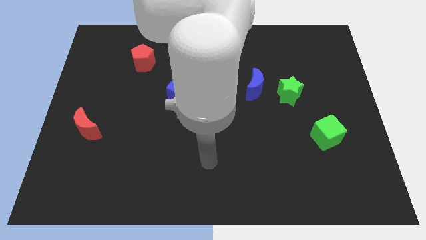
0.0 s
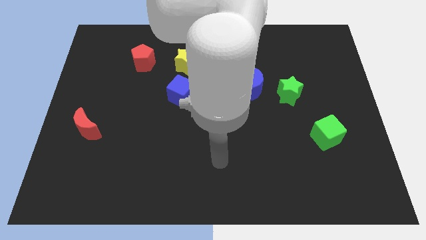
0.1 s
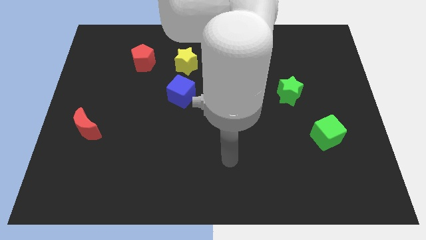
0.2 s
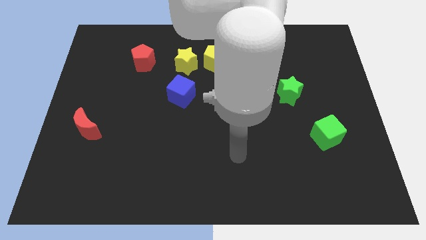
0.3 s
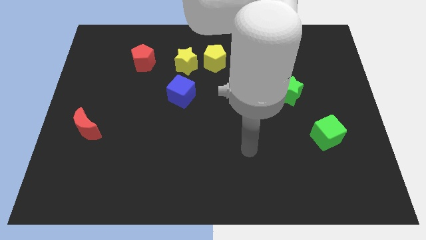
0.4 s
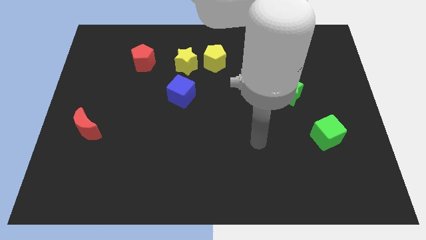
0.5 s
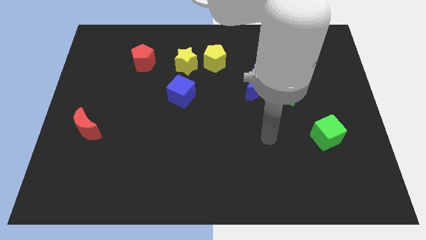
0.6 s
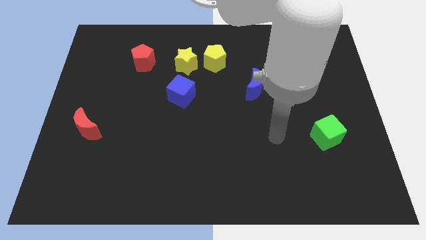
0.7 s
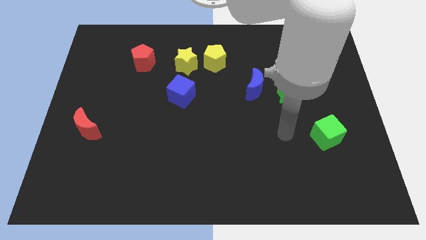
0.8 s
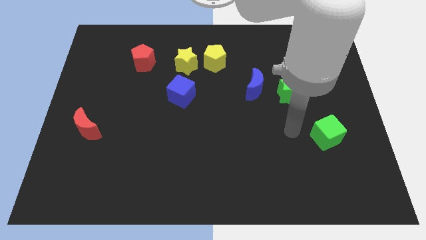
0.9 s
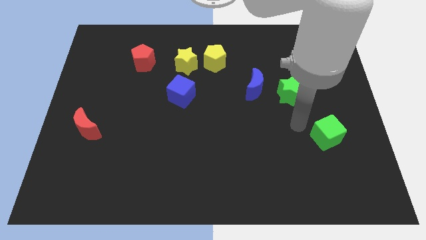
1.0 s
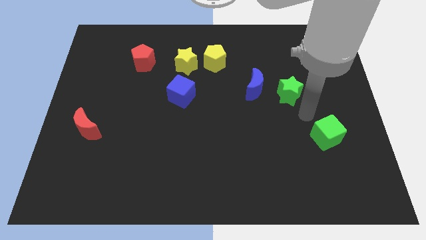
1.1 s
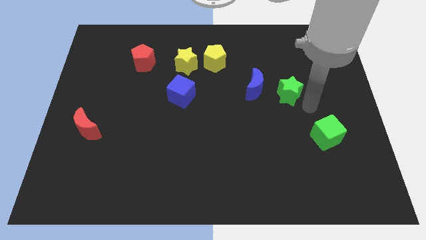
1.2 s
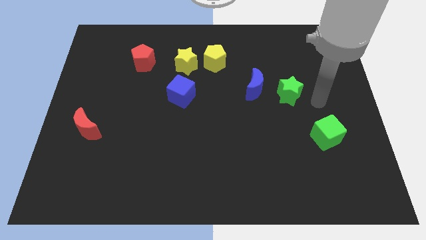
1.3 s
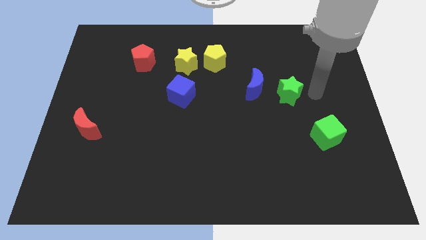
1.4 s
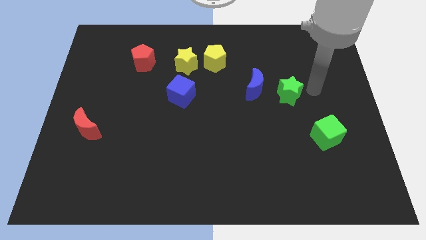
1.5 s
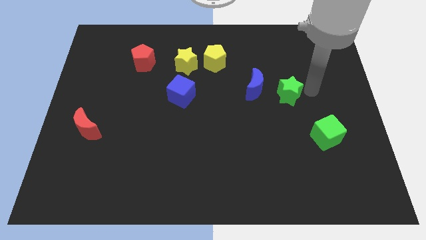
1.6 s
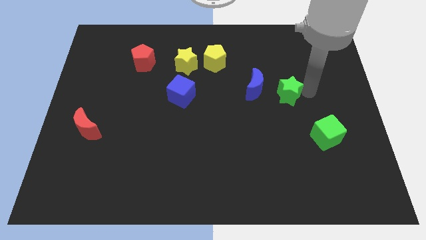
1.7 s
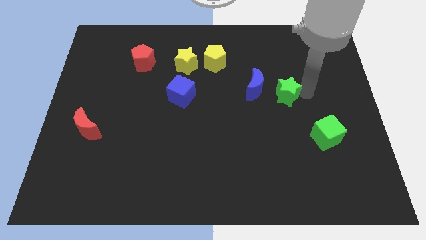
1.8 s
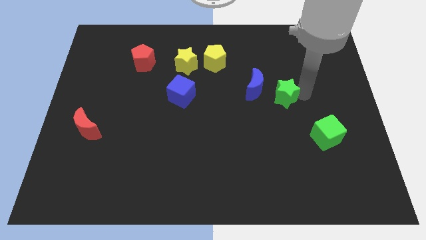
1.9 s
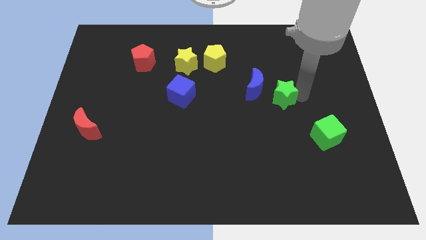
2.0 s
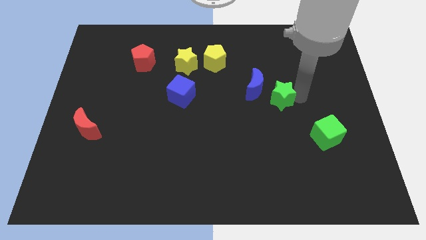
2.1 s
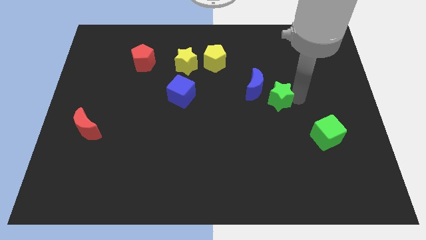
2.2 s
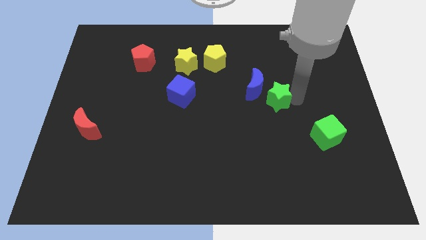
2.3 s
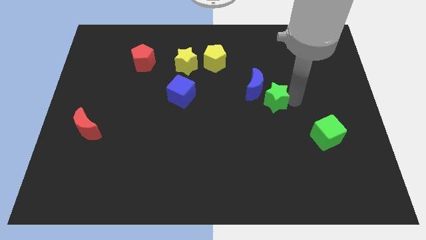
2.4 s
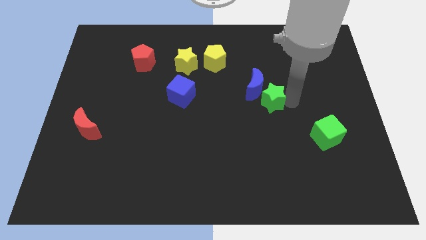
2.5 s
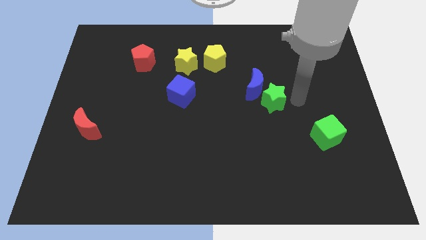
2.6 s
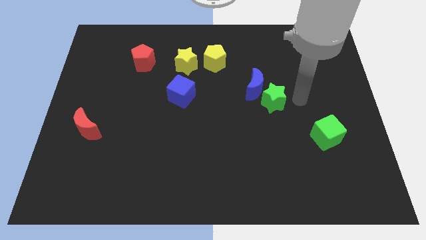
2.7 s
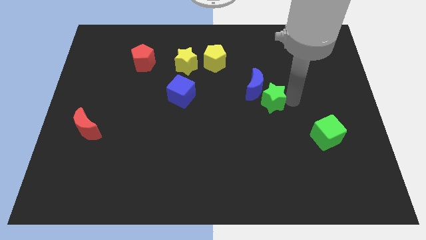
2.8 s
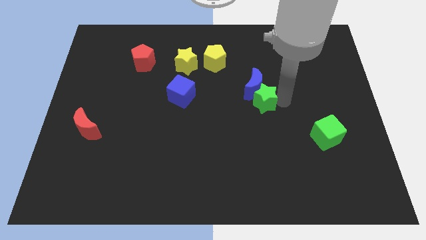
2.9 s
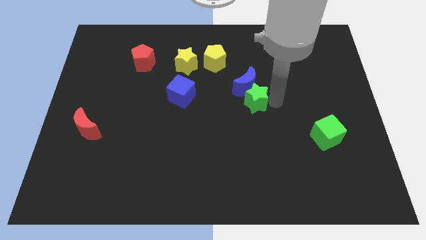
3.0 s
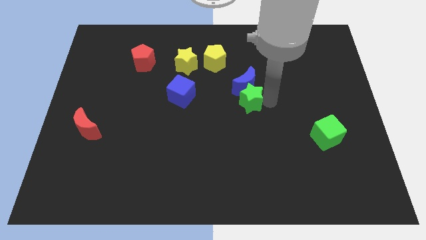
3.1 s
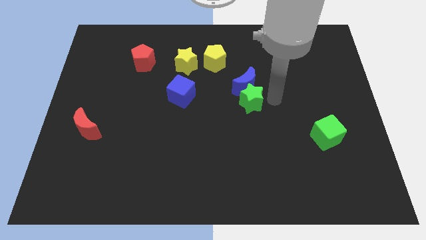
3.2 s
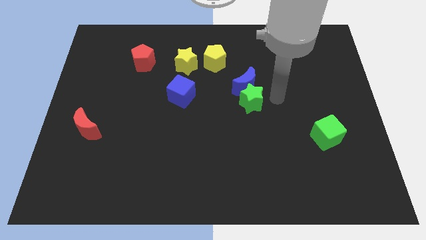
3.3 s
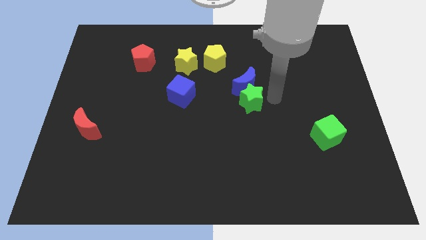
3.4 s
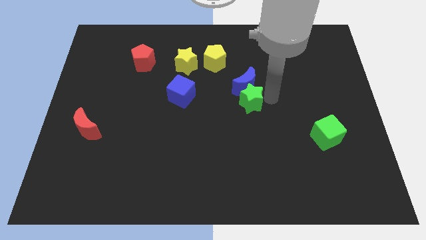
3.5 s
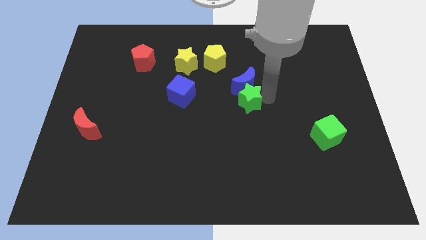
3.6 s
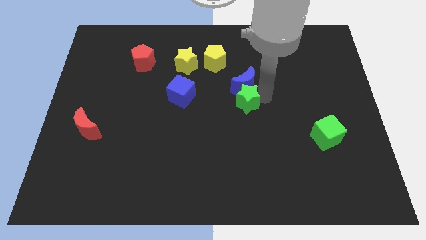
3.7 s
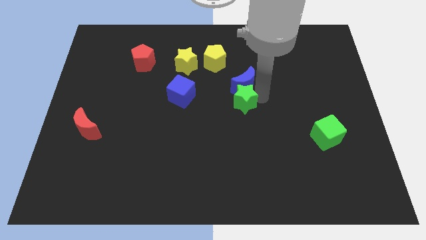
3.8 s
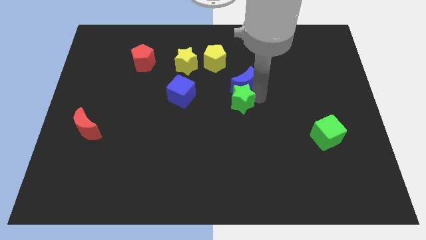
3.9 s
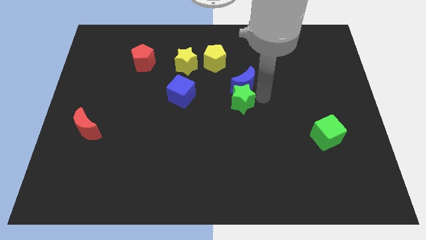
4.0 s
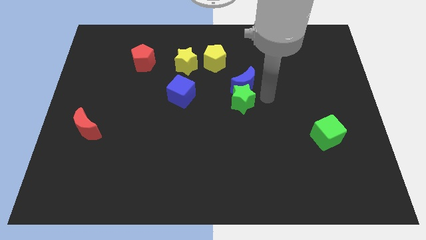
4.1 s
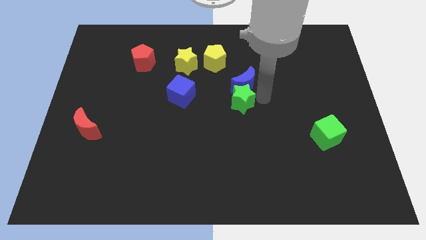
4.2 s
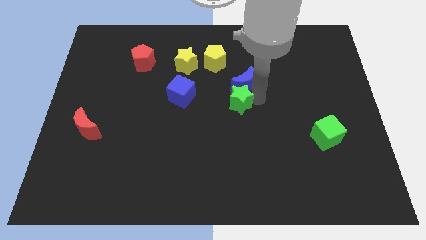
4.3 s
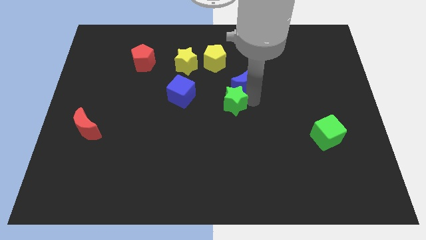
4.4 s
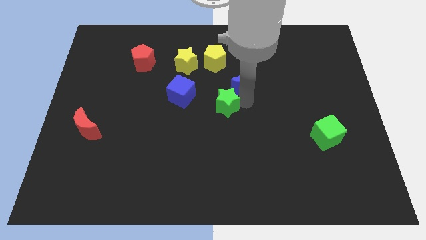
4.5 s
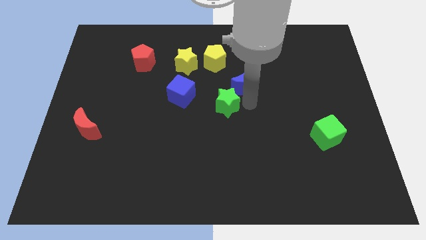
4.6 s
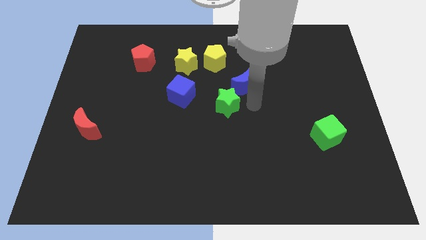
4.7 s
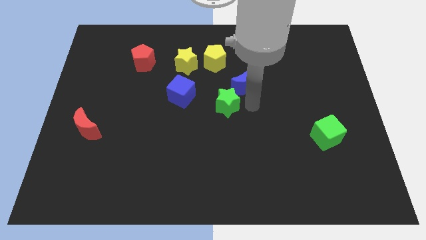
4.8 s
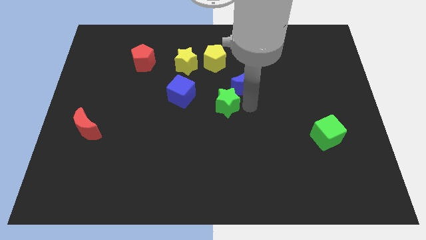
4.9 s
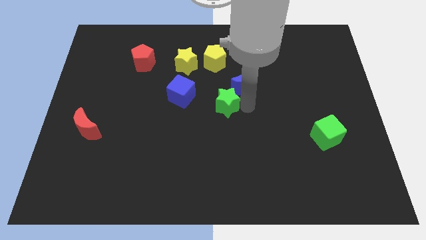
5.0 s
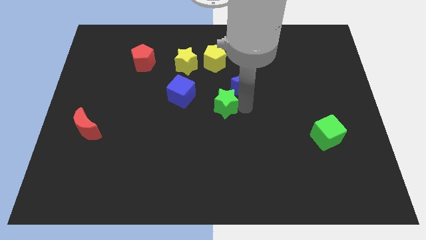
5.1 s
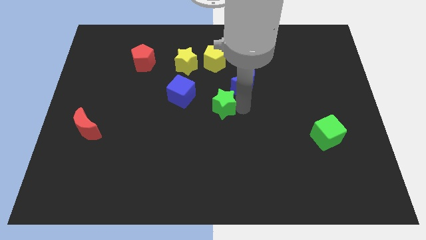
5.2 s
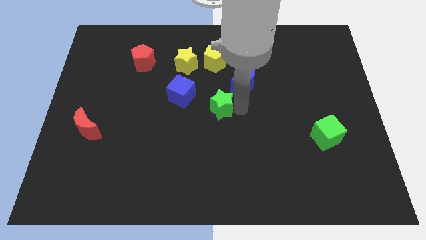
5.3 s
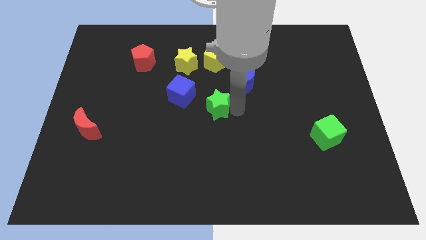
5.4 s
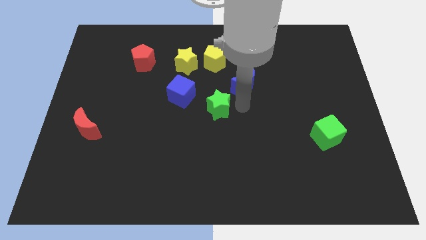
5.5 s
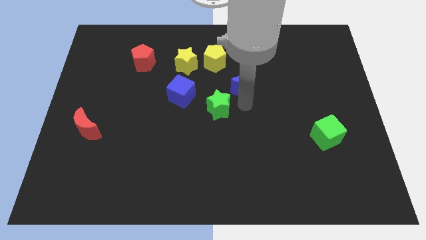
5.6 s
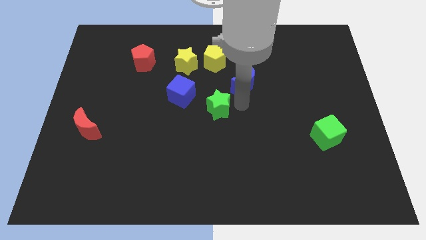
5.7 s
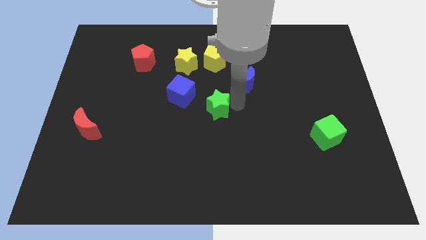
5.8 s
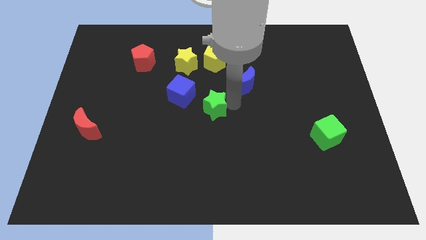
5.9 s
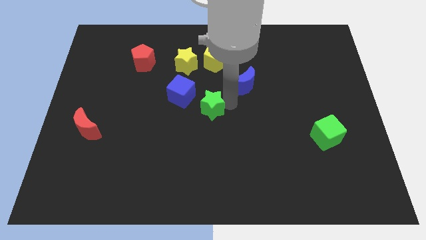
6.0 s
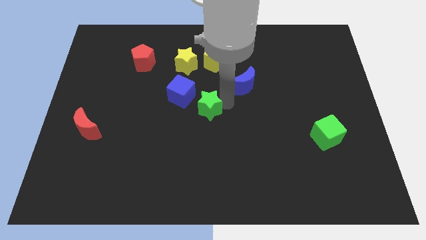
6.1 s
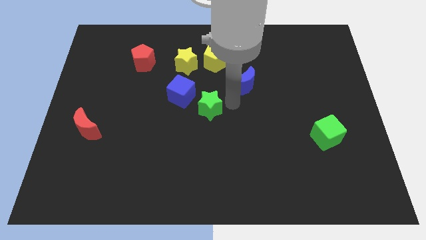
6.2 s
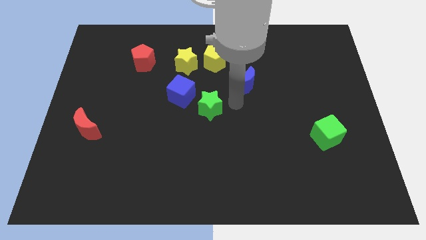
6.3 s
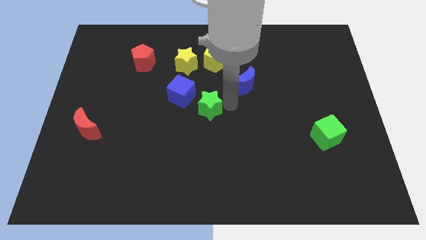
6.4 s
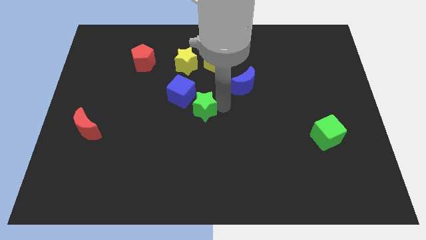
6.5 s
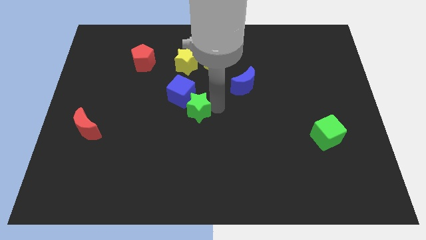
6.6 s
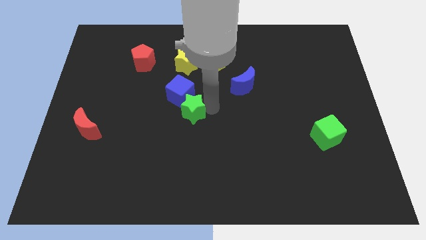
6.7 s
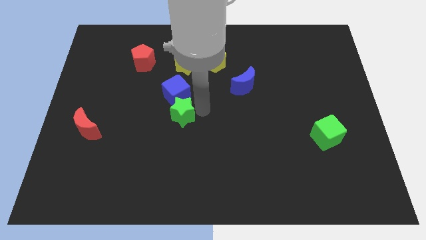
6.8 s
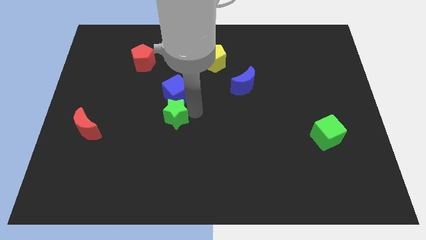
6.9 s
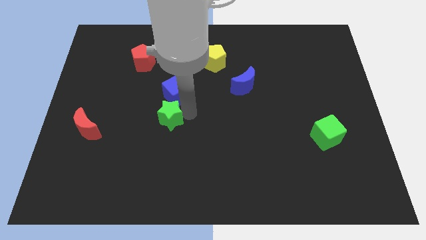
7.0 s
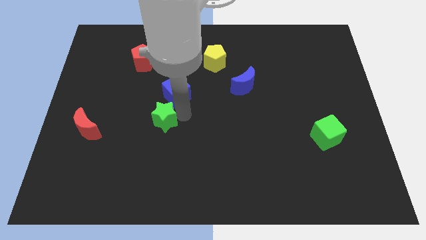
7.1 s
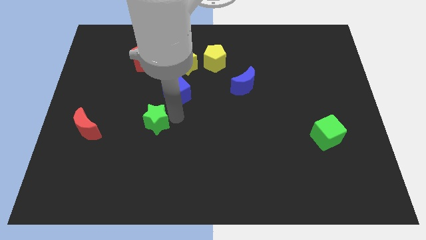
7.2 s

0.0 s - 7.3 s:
push the green star right of the red moon
